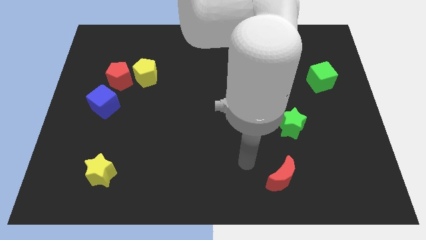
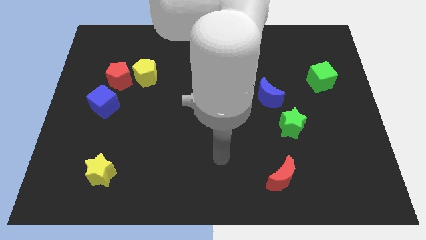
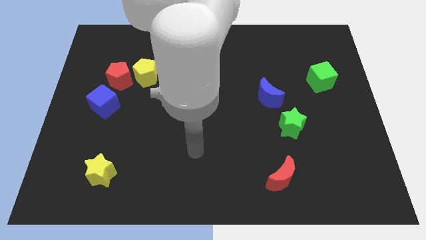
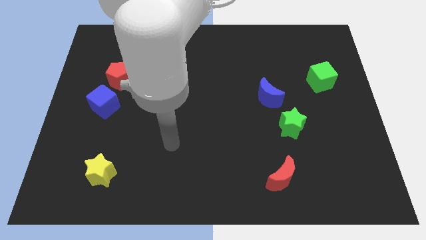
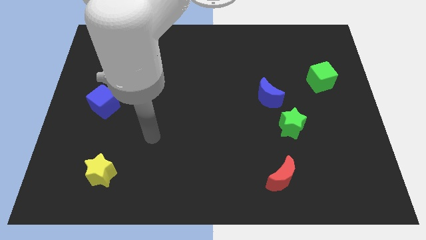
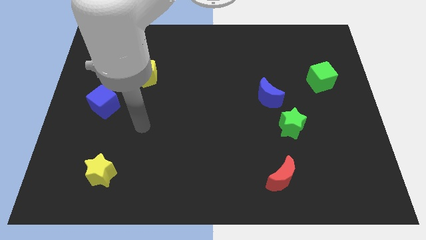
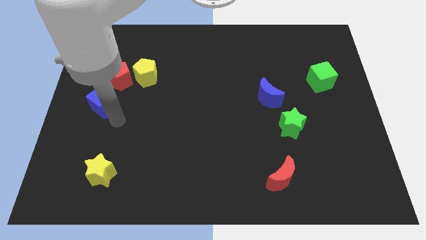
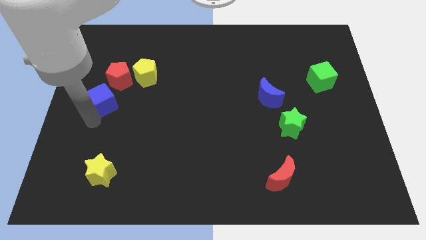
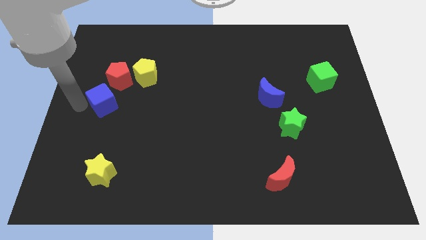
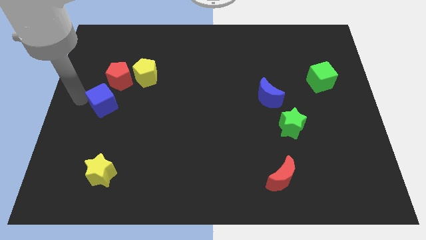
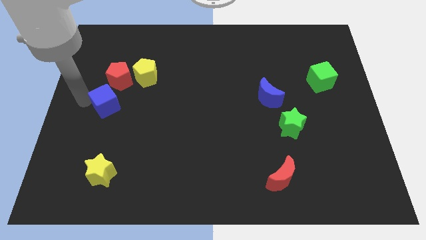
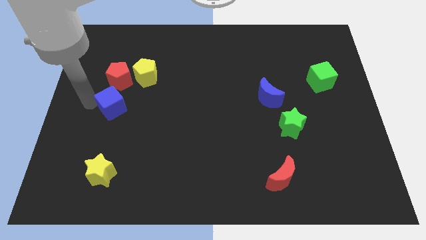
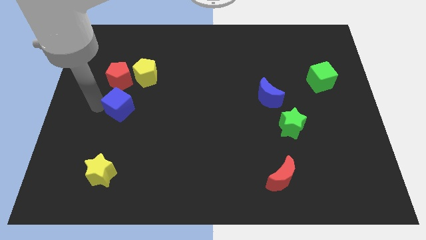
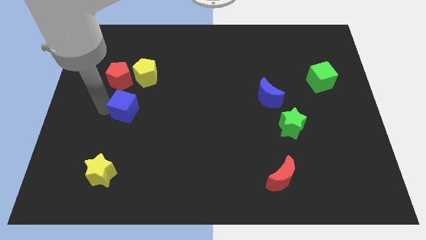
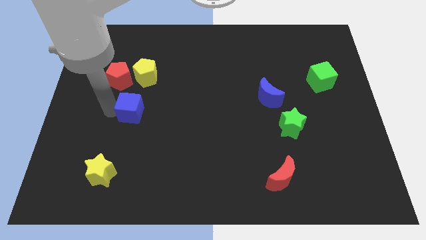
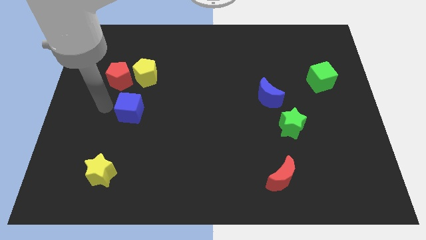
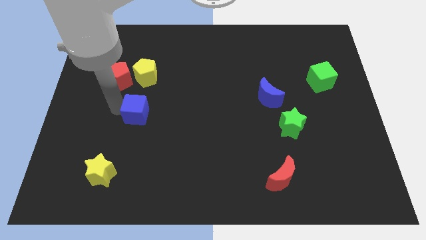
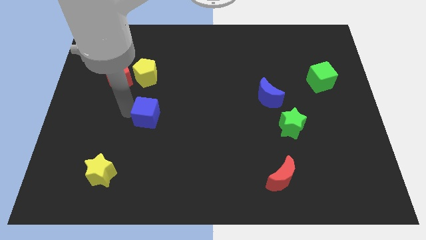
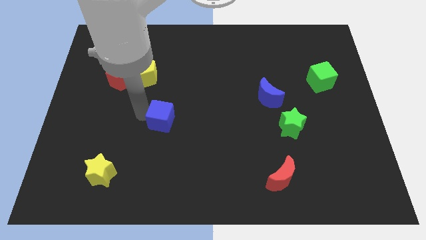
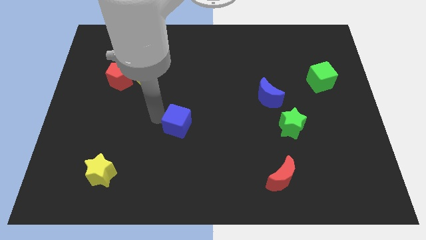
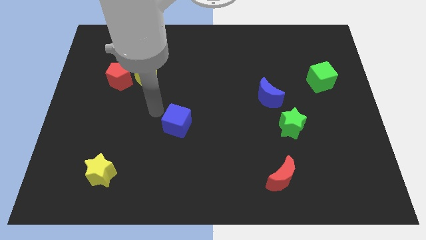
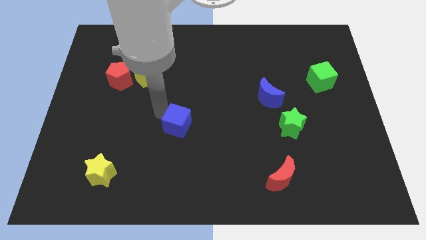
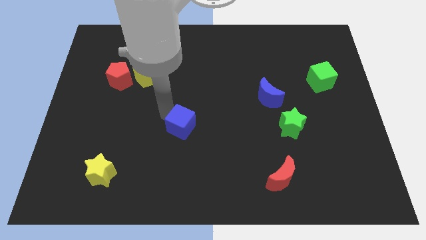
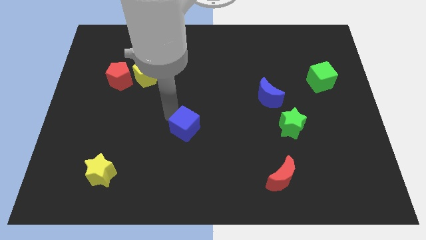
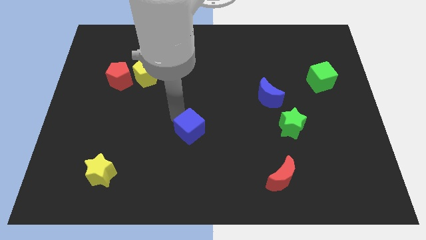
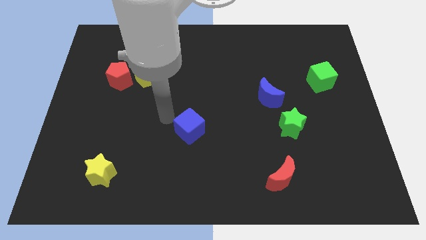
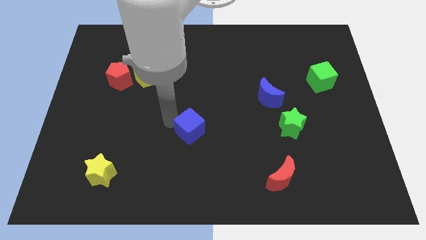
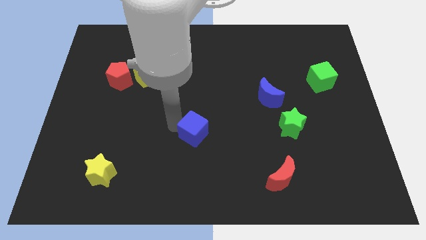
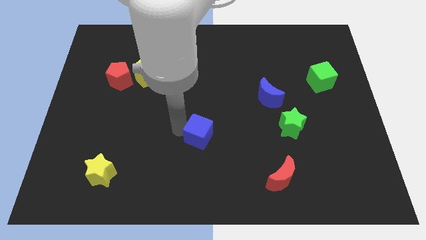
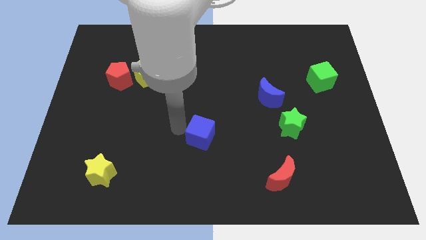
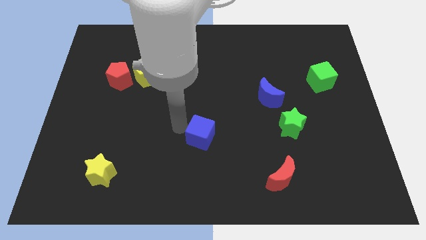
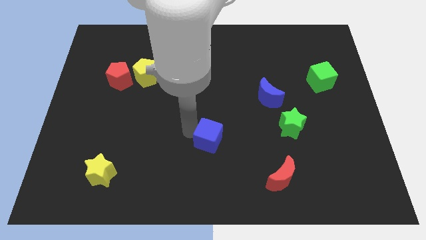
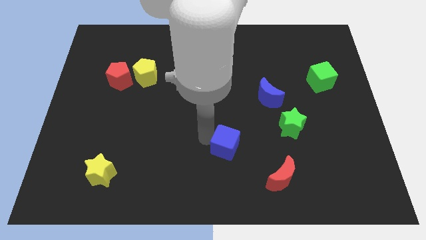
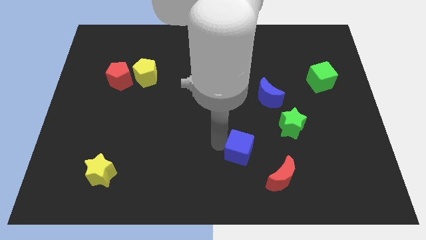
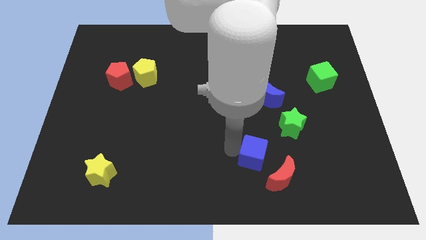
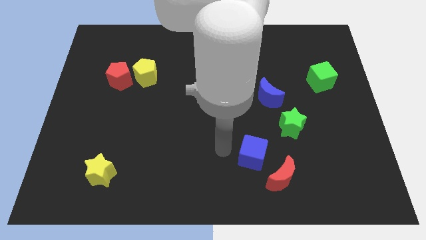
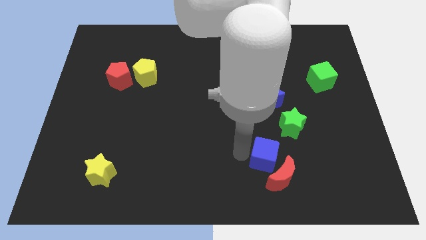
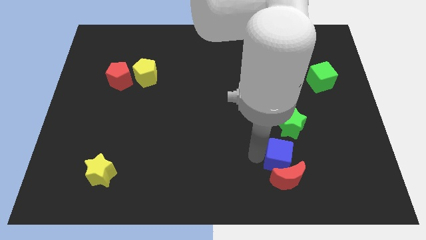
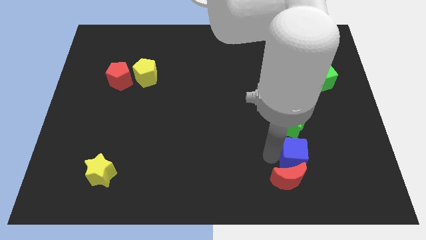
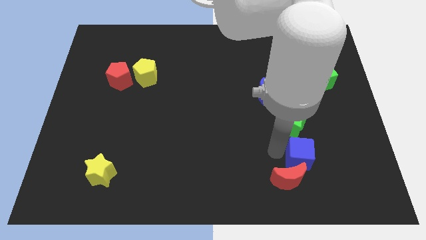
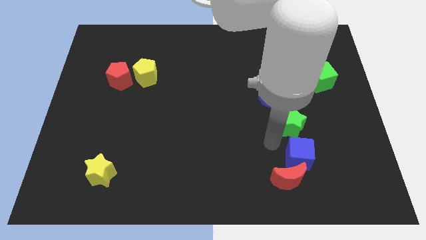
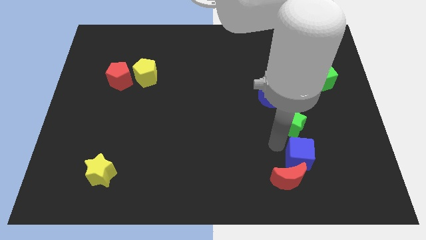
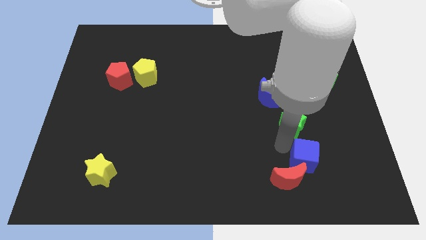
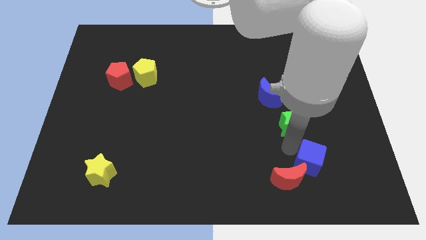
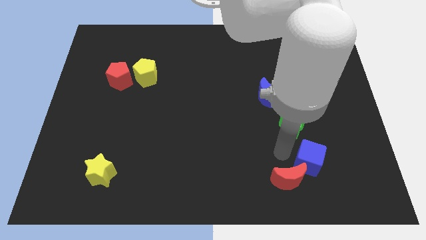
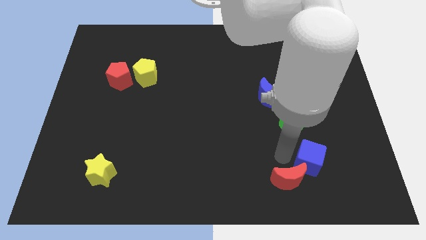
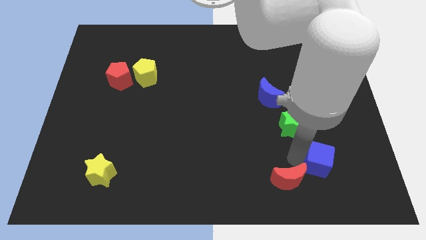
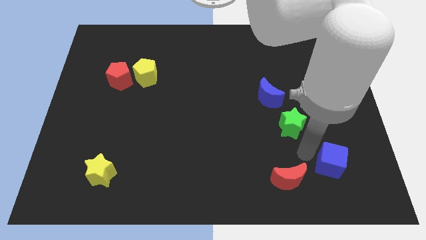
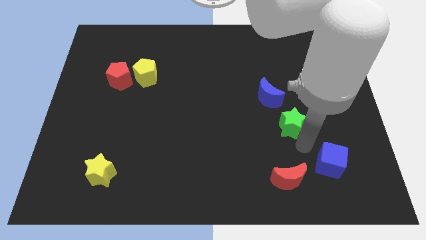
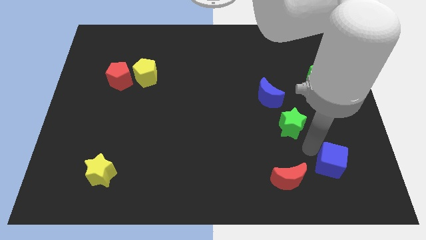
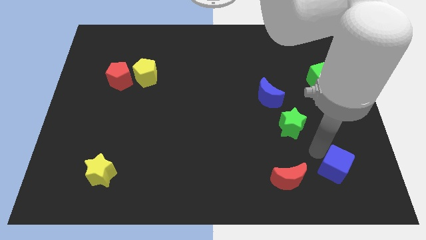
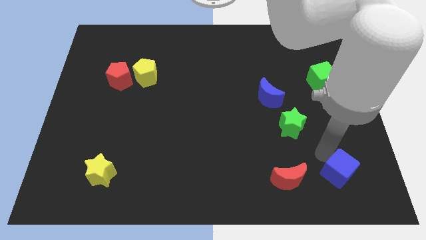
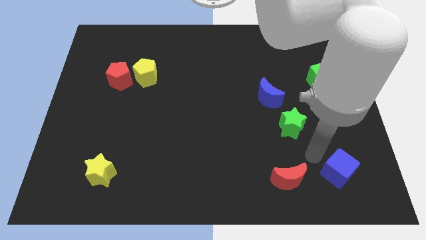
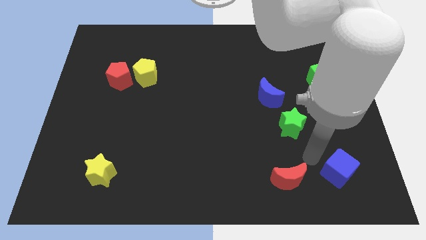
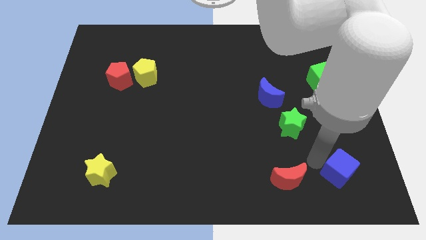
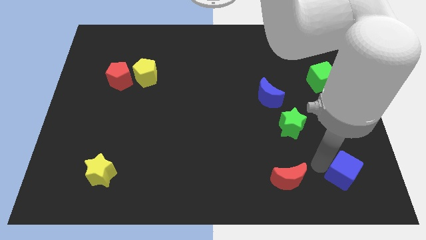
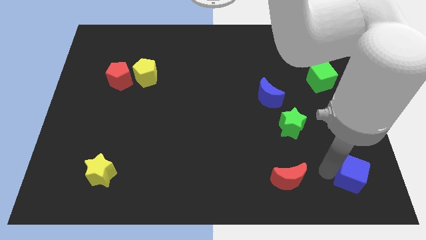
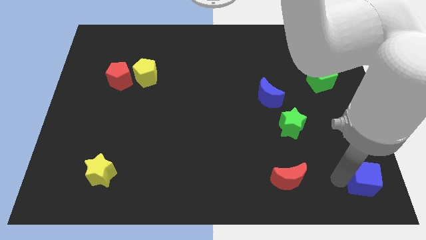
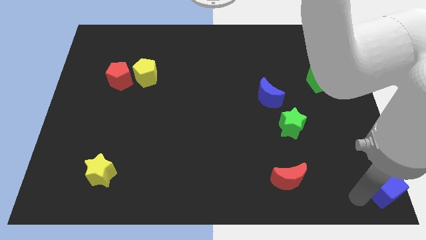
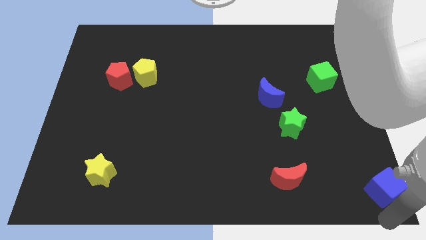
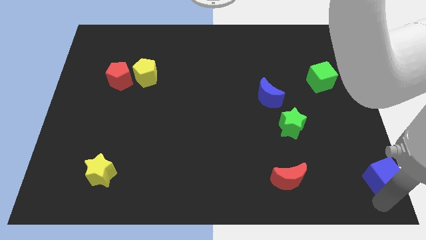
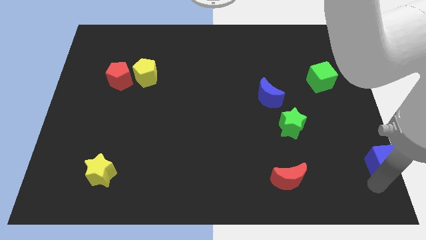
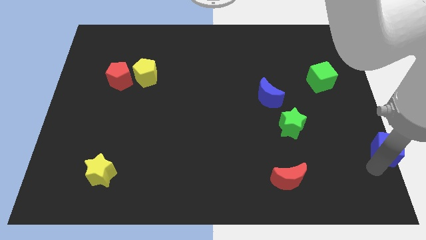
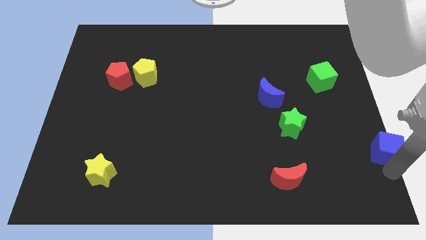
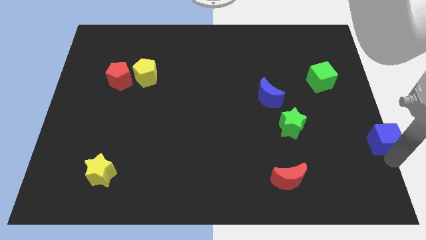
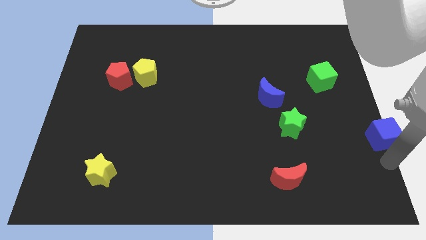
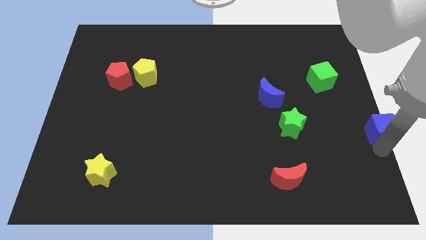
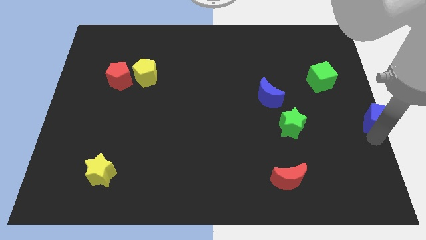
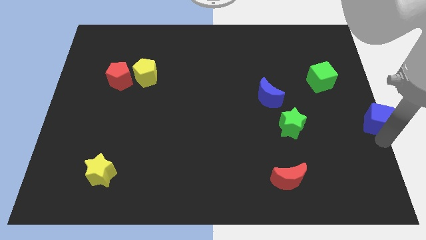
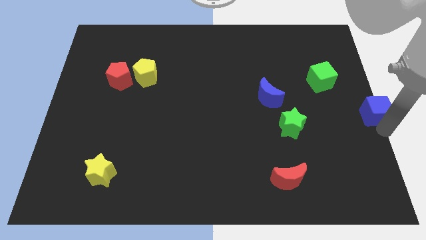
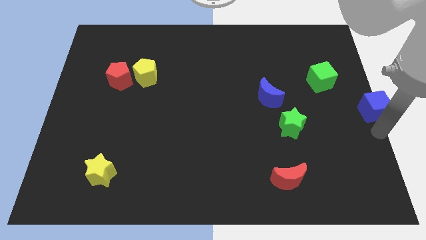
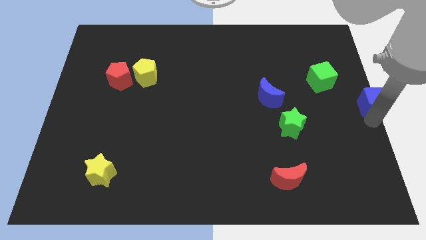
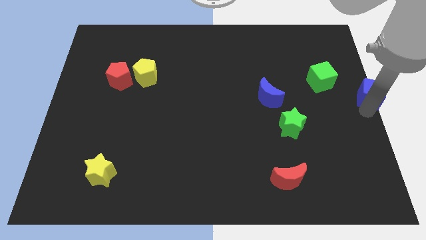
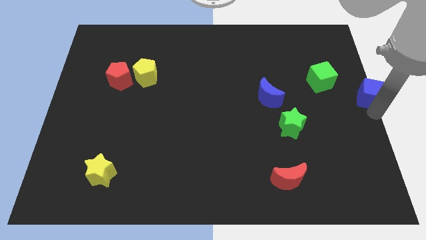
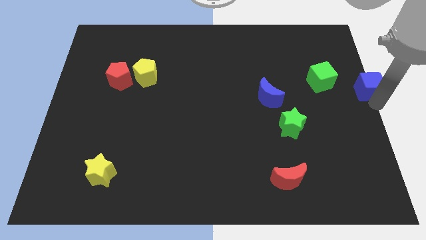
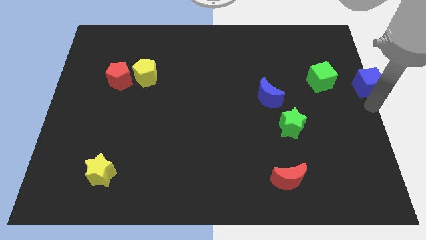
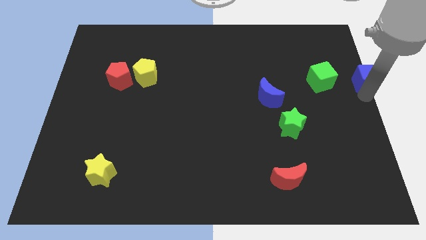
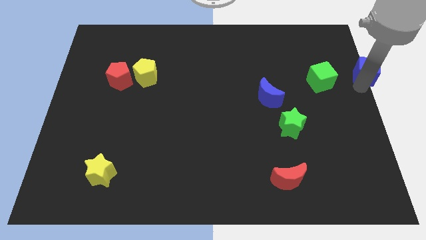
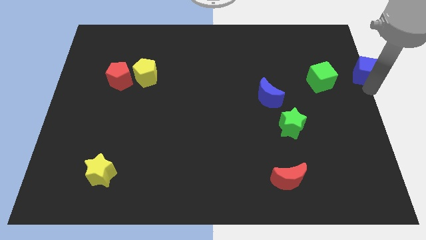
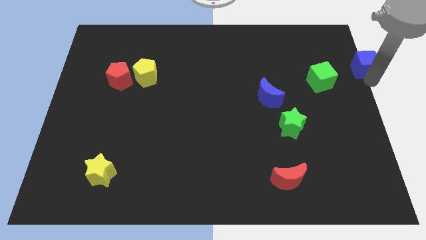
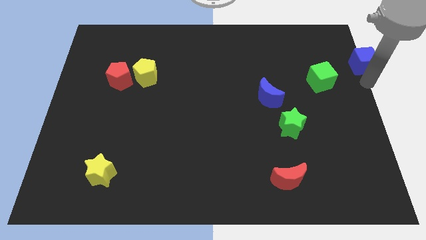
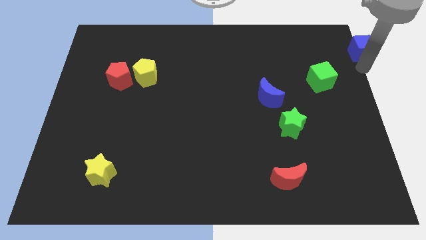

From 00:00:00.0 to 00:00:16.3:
move the blue cube to the upper right corner
